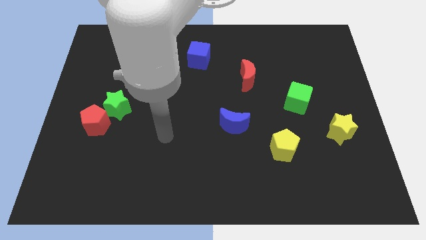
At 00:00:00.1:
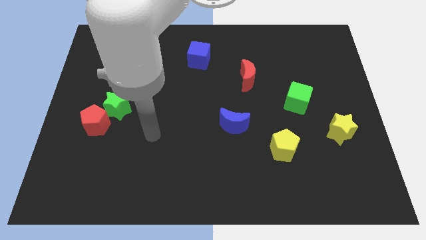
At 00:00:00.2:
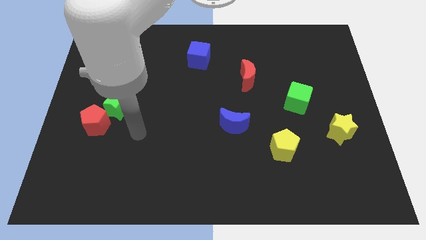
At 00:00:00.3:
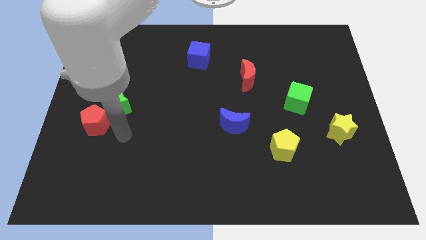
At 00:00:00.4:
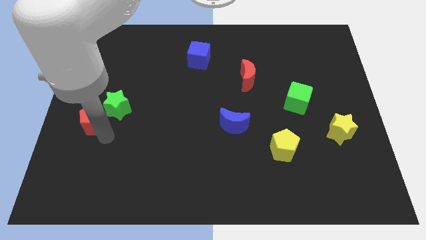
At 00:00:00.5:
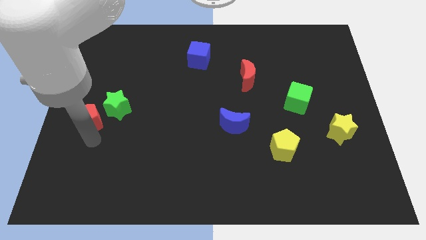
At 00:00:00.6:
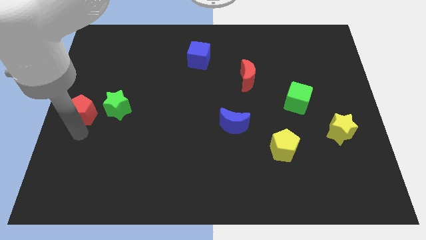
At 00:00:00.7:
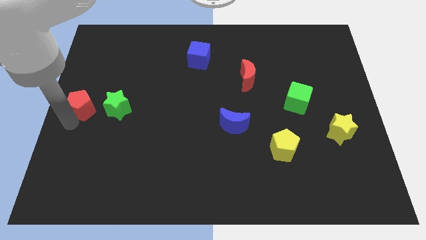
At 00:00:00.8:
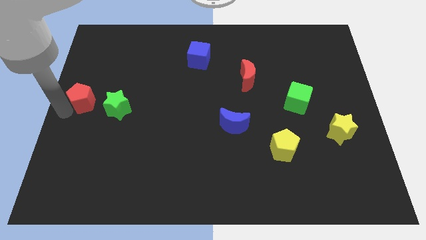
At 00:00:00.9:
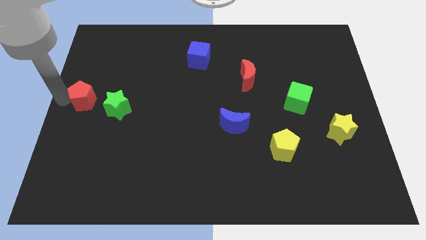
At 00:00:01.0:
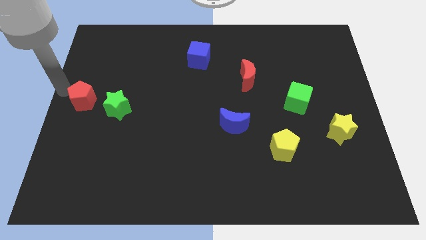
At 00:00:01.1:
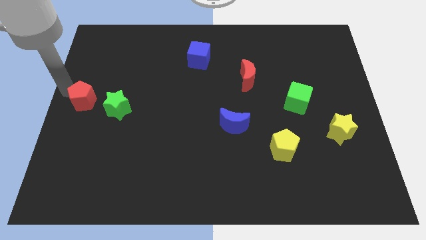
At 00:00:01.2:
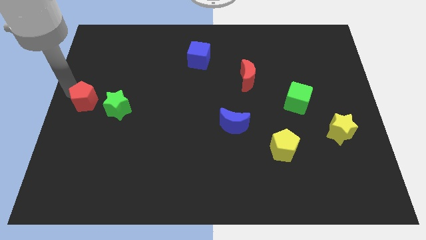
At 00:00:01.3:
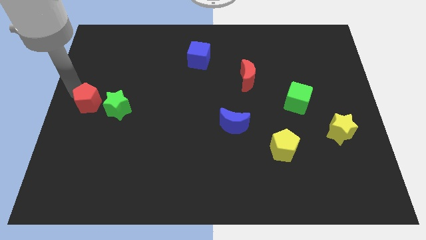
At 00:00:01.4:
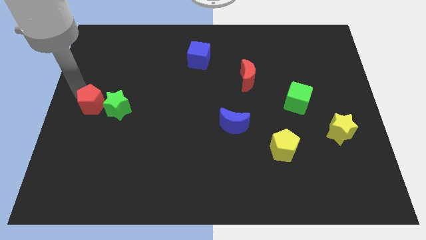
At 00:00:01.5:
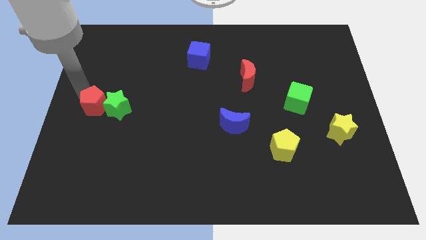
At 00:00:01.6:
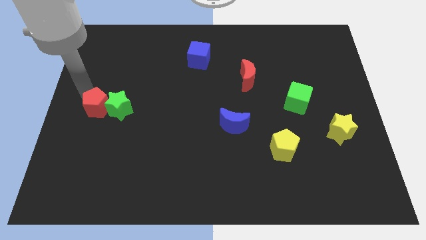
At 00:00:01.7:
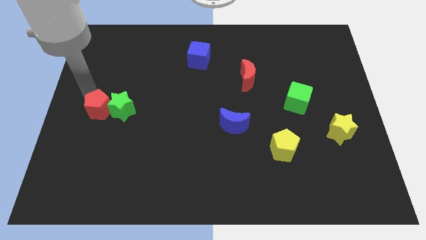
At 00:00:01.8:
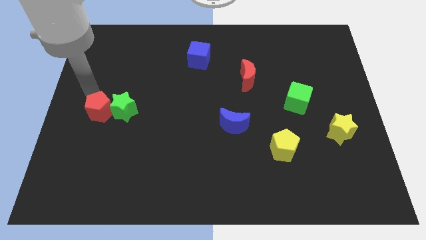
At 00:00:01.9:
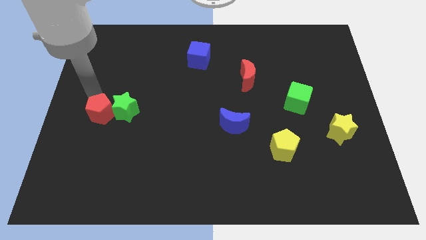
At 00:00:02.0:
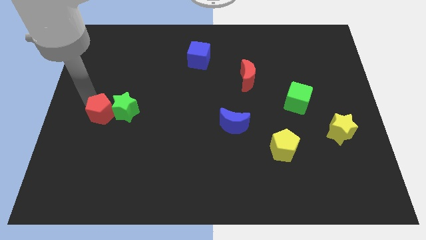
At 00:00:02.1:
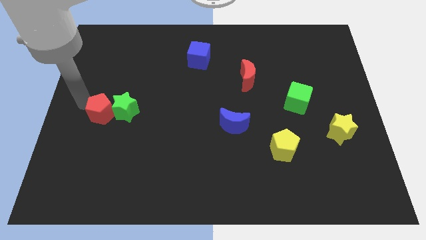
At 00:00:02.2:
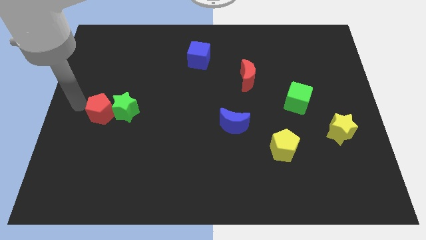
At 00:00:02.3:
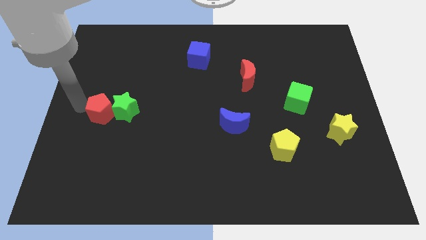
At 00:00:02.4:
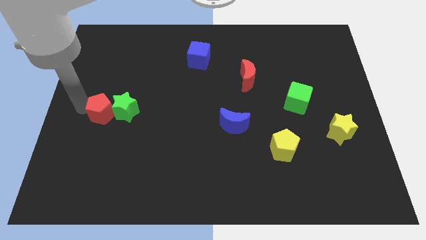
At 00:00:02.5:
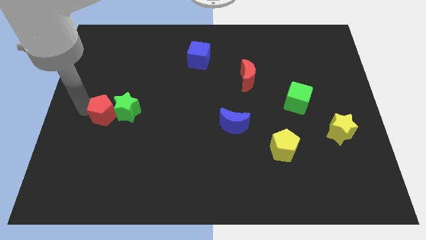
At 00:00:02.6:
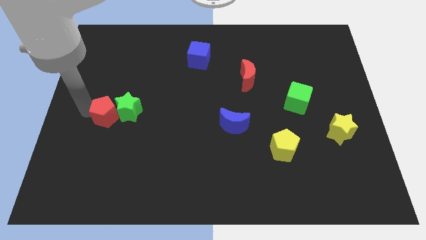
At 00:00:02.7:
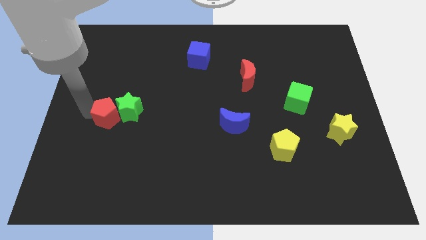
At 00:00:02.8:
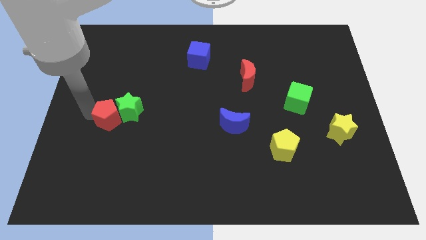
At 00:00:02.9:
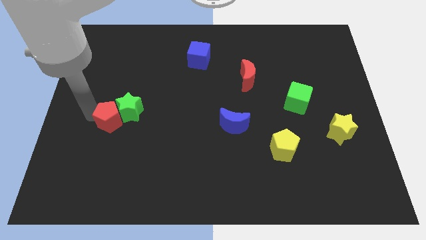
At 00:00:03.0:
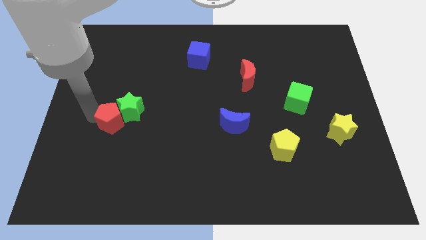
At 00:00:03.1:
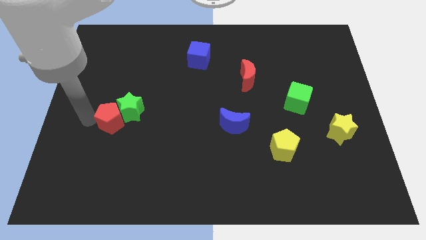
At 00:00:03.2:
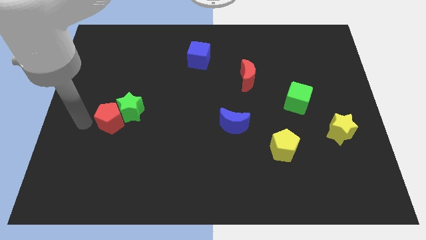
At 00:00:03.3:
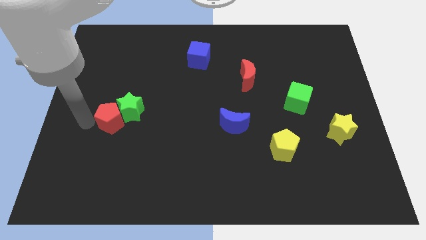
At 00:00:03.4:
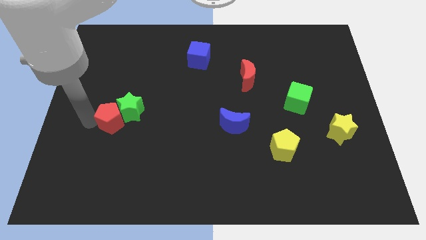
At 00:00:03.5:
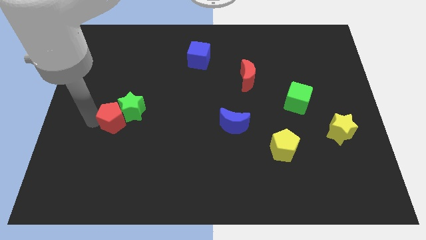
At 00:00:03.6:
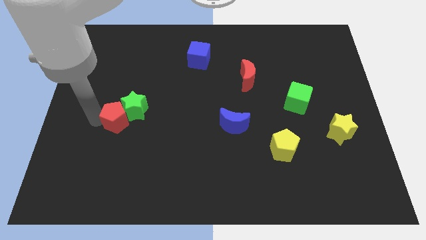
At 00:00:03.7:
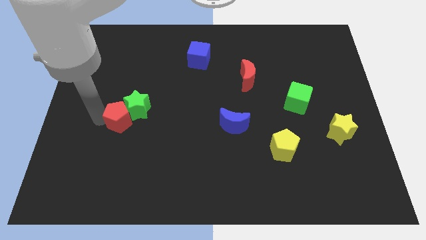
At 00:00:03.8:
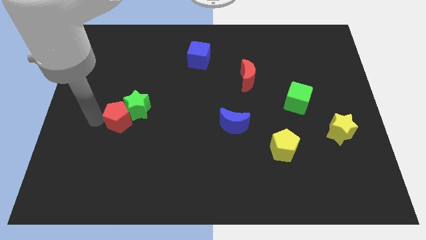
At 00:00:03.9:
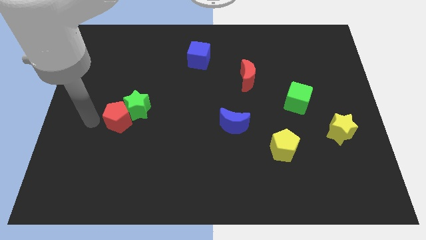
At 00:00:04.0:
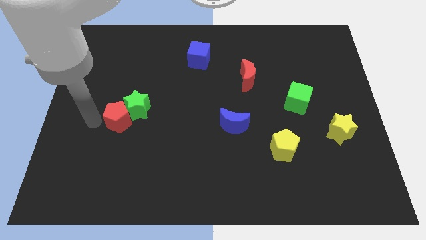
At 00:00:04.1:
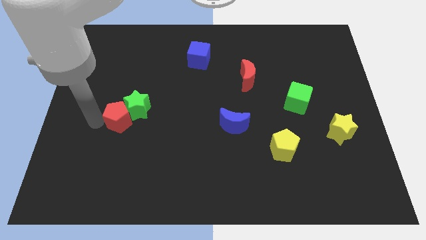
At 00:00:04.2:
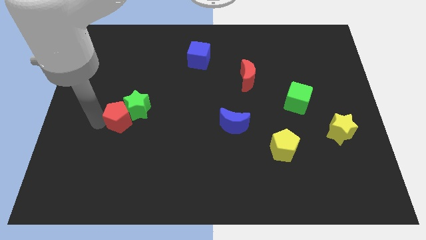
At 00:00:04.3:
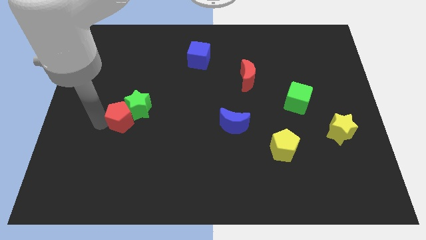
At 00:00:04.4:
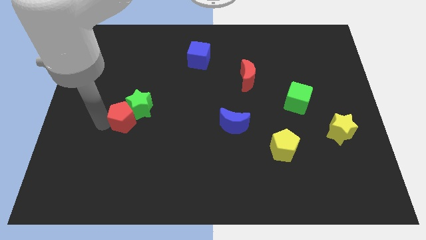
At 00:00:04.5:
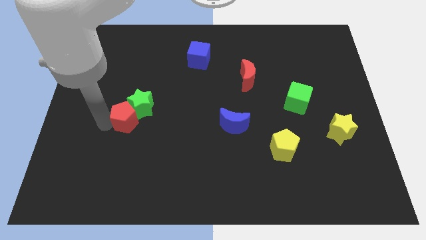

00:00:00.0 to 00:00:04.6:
move the red pentagon to the right a bit

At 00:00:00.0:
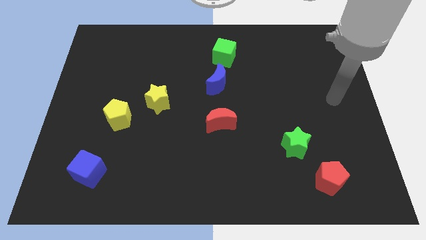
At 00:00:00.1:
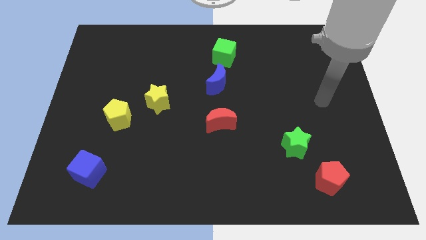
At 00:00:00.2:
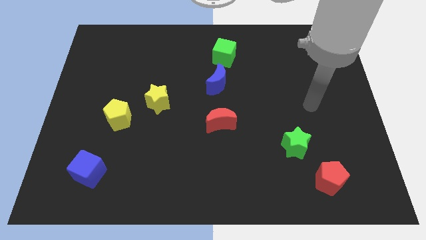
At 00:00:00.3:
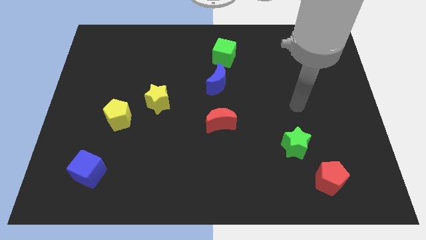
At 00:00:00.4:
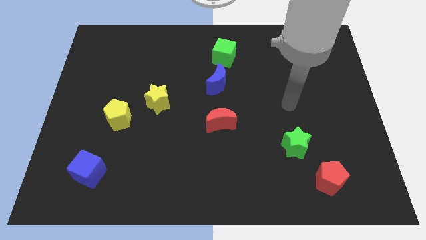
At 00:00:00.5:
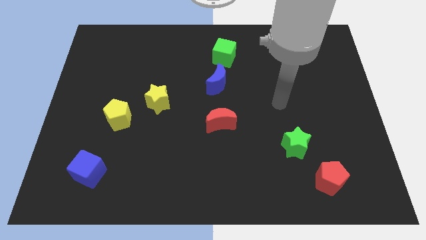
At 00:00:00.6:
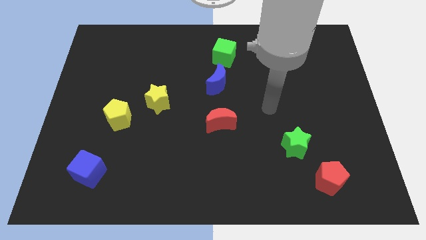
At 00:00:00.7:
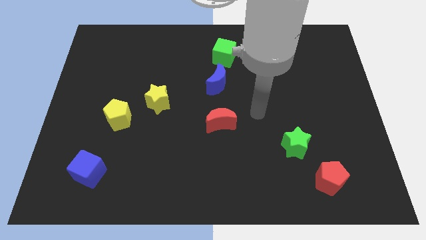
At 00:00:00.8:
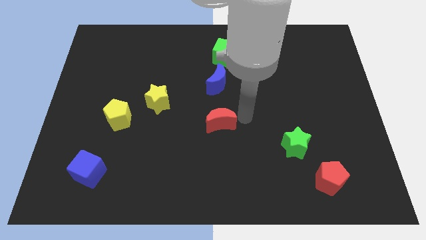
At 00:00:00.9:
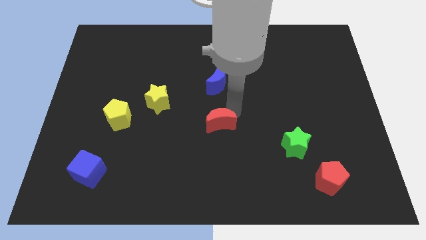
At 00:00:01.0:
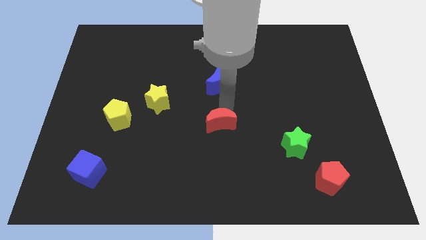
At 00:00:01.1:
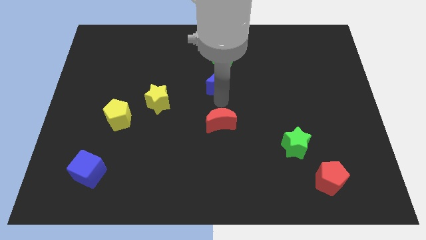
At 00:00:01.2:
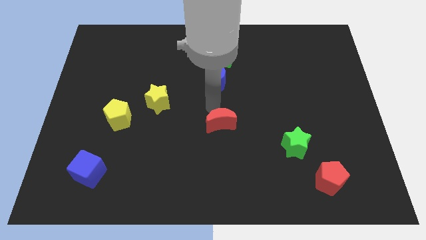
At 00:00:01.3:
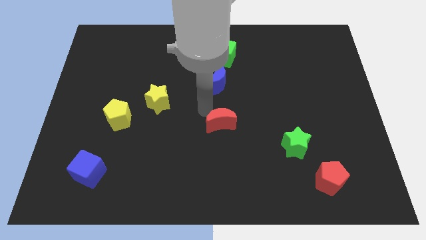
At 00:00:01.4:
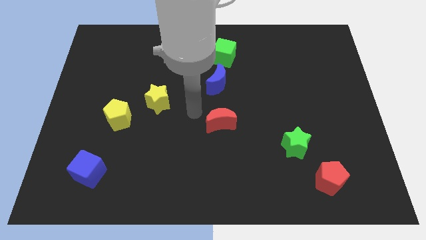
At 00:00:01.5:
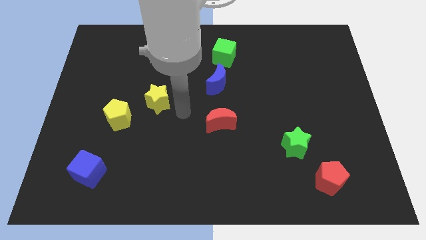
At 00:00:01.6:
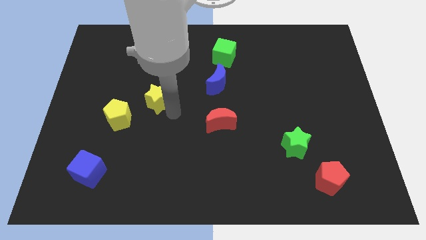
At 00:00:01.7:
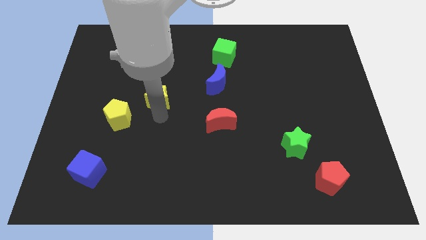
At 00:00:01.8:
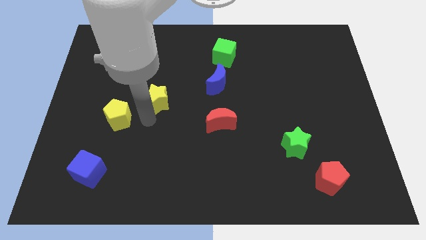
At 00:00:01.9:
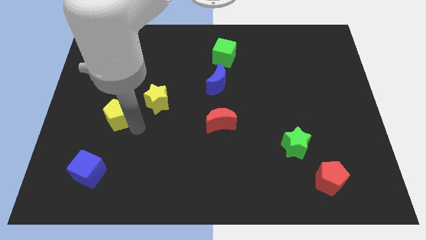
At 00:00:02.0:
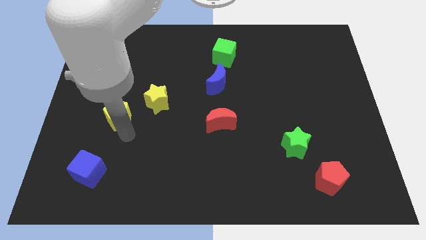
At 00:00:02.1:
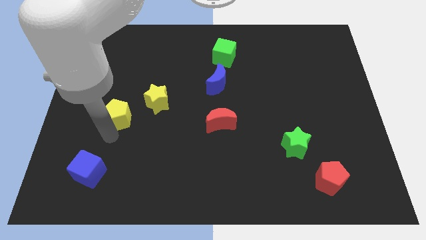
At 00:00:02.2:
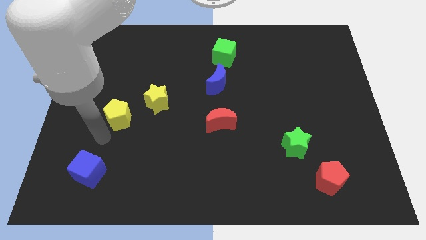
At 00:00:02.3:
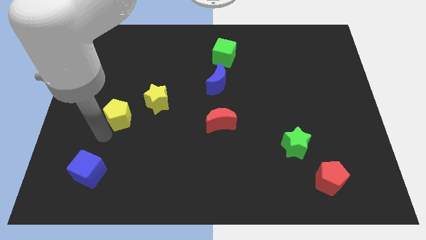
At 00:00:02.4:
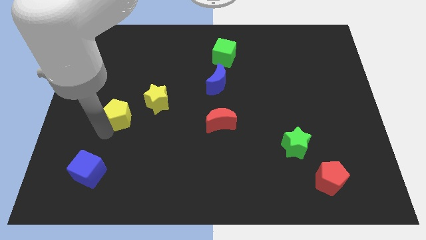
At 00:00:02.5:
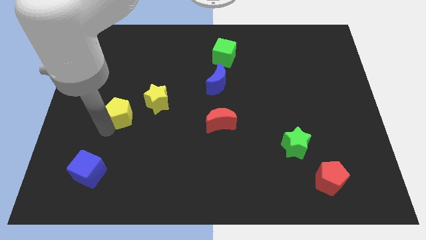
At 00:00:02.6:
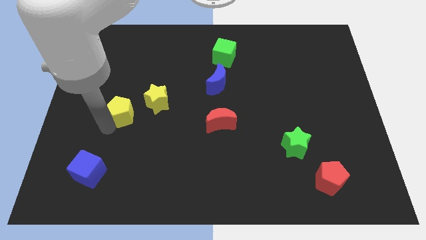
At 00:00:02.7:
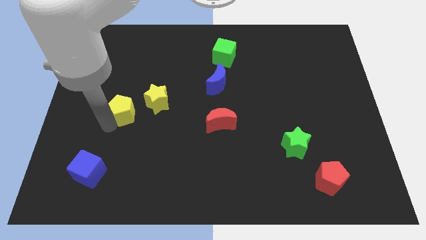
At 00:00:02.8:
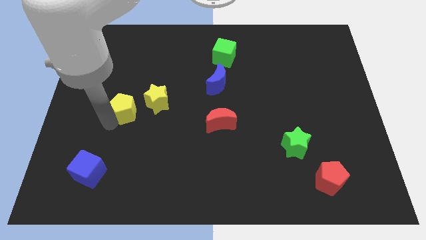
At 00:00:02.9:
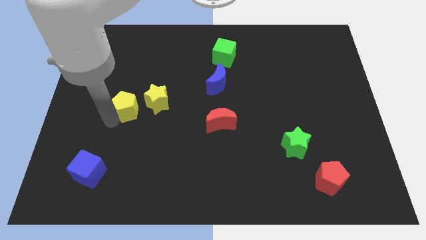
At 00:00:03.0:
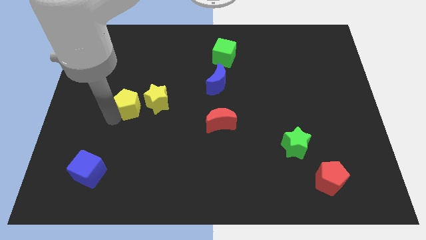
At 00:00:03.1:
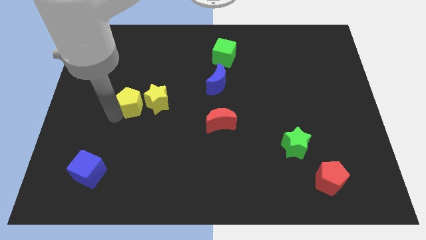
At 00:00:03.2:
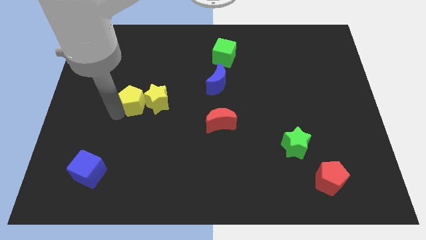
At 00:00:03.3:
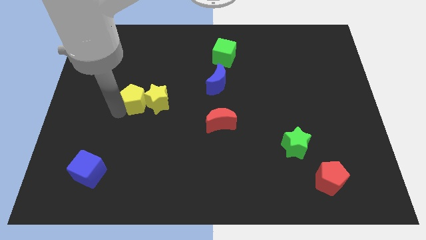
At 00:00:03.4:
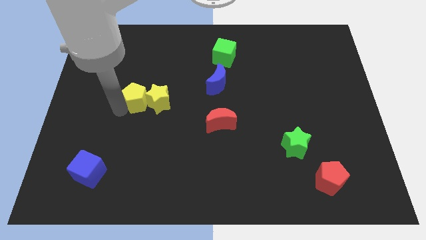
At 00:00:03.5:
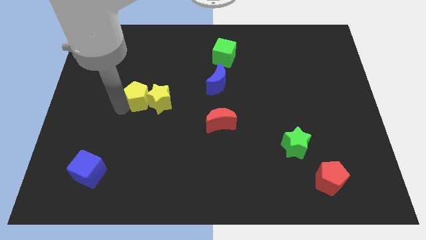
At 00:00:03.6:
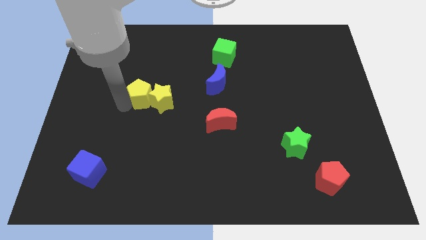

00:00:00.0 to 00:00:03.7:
push the yellow pentagon upwards and to the right a little bit
